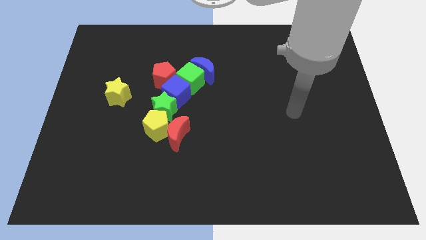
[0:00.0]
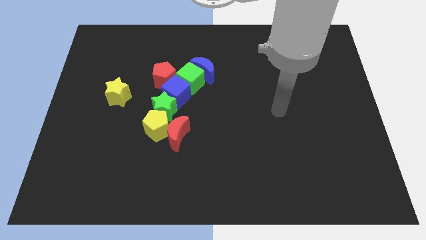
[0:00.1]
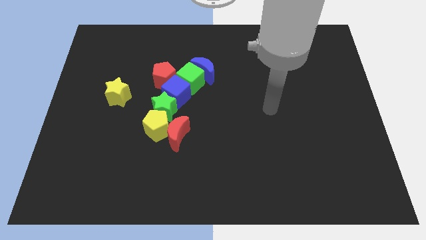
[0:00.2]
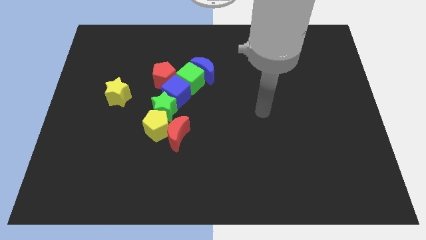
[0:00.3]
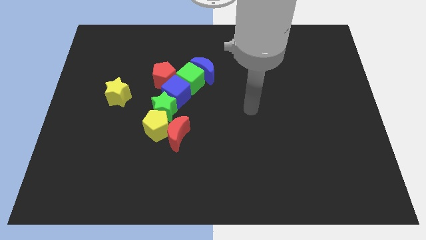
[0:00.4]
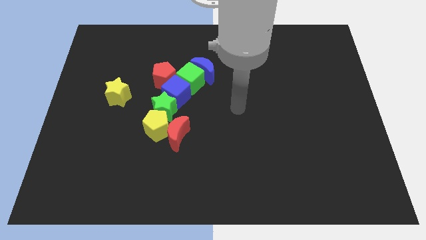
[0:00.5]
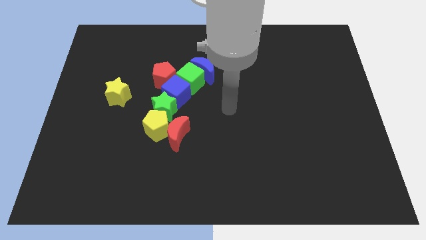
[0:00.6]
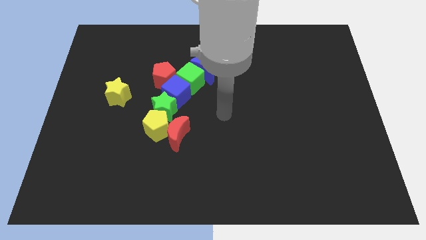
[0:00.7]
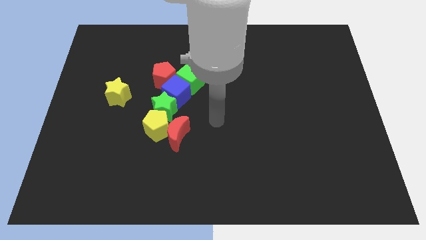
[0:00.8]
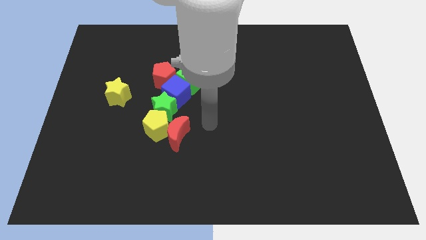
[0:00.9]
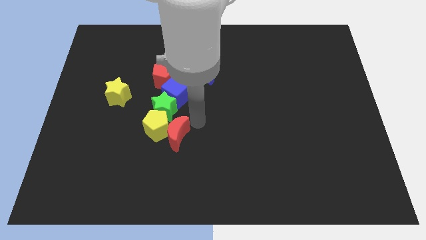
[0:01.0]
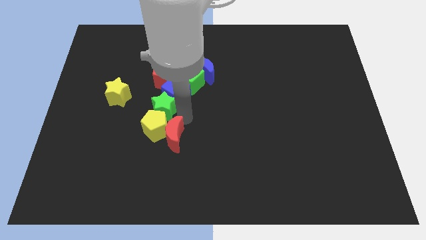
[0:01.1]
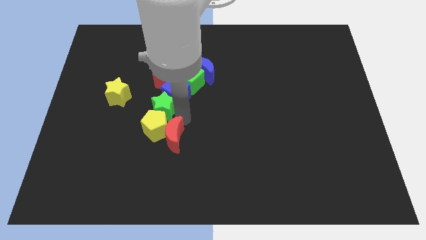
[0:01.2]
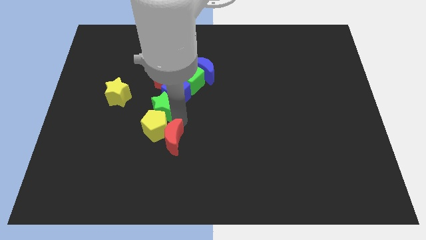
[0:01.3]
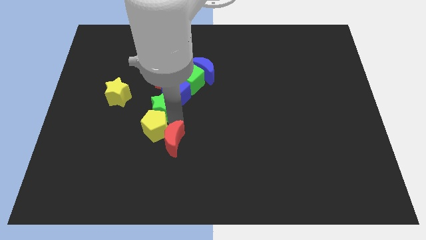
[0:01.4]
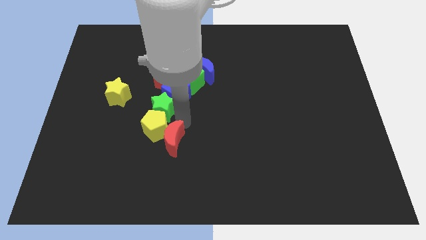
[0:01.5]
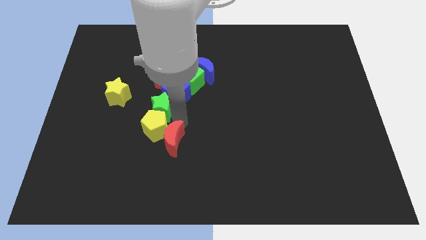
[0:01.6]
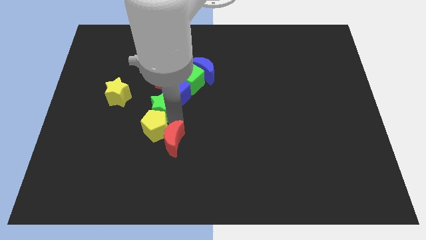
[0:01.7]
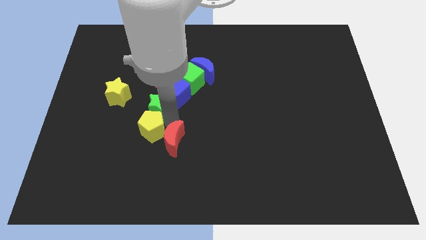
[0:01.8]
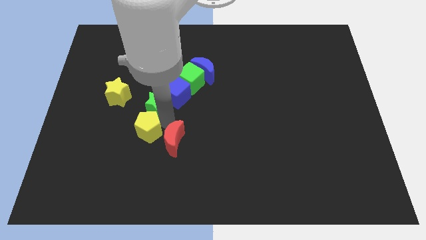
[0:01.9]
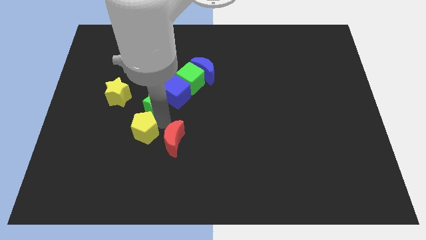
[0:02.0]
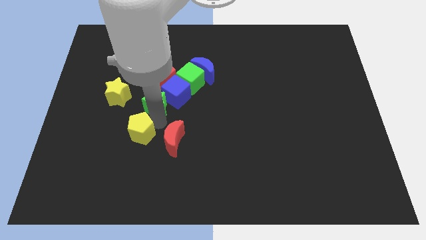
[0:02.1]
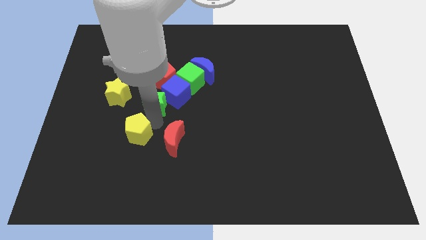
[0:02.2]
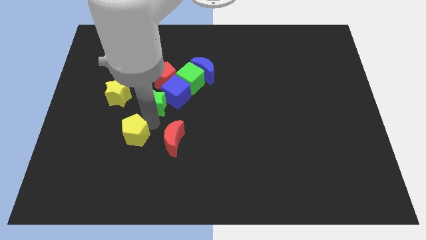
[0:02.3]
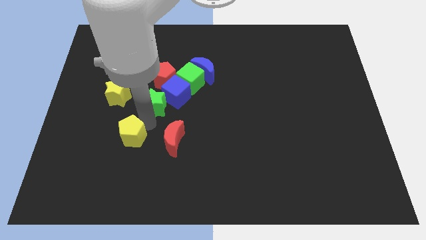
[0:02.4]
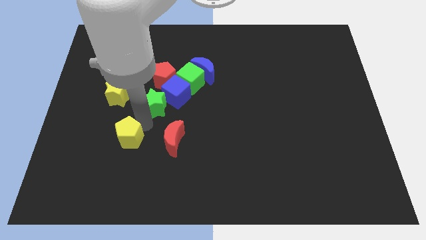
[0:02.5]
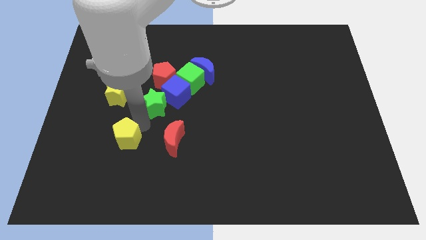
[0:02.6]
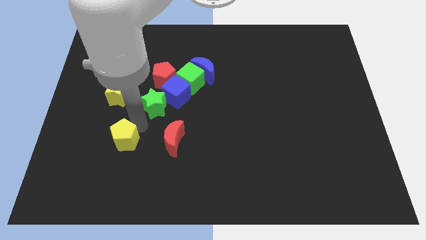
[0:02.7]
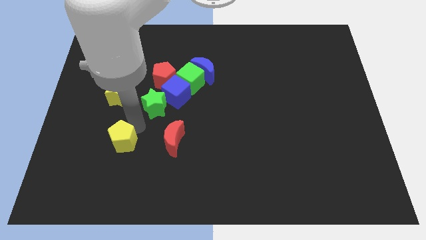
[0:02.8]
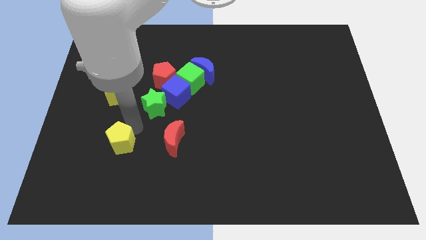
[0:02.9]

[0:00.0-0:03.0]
separate the yellow pentagon from the green star and red moon

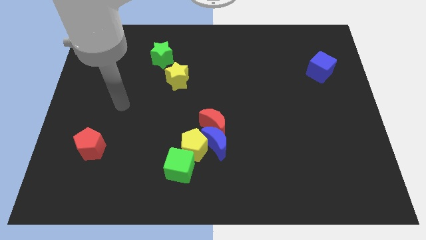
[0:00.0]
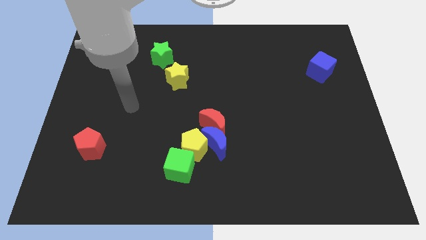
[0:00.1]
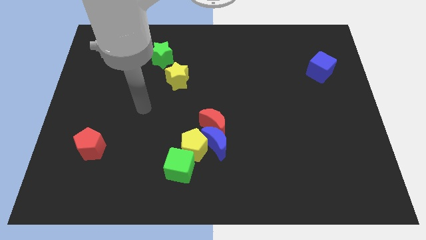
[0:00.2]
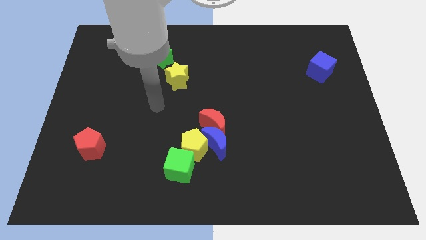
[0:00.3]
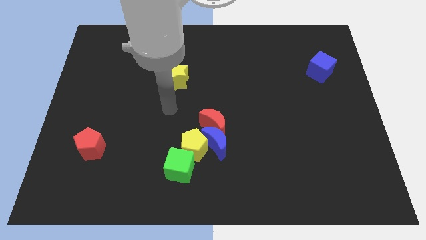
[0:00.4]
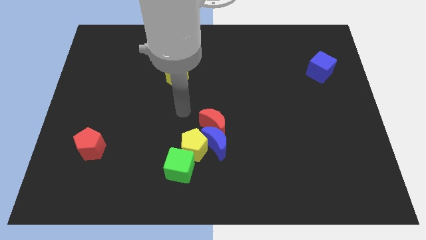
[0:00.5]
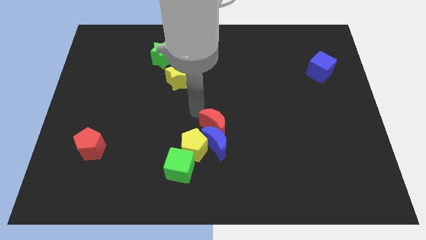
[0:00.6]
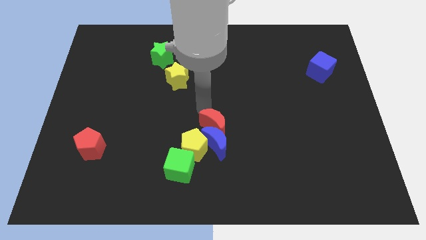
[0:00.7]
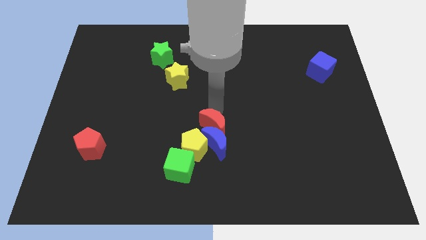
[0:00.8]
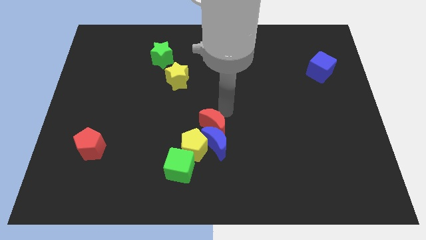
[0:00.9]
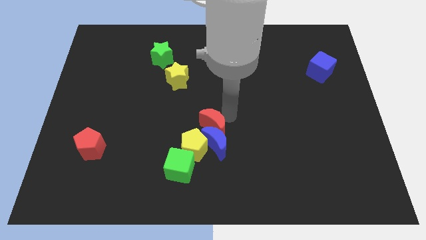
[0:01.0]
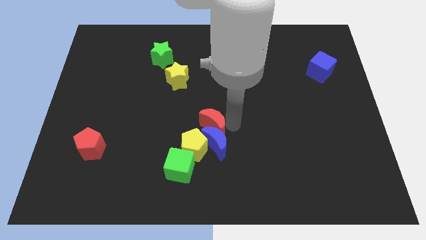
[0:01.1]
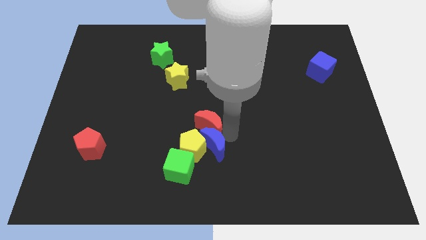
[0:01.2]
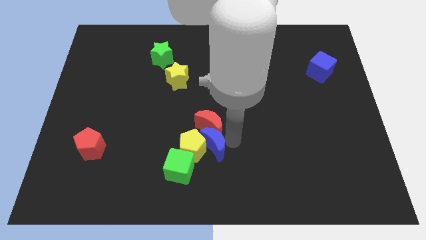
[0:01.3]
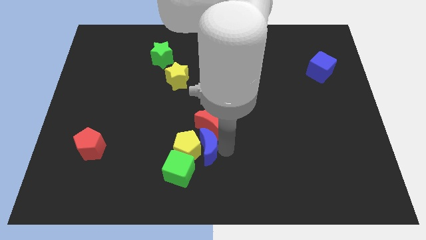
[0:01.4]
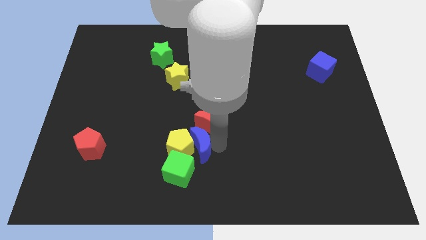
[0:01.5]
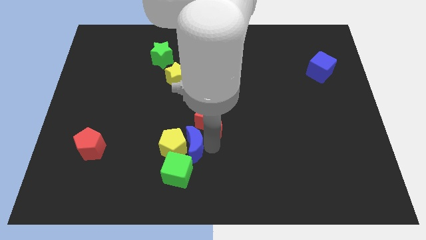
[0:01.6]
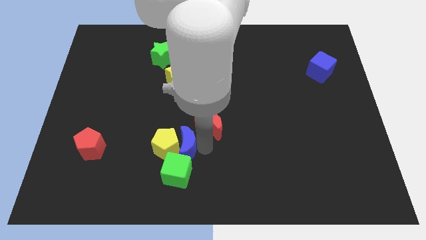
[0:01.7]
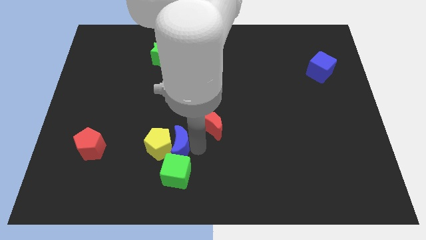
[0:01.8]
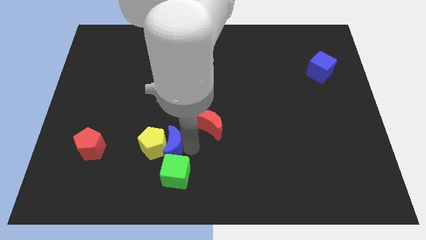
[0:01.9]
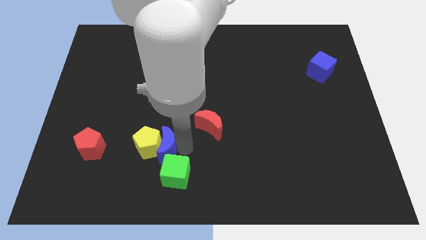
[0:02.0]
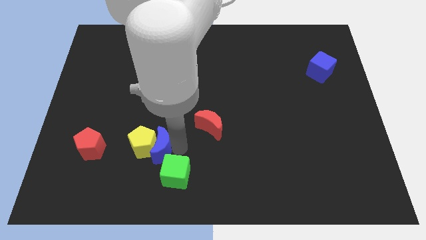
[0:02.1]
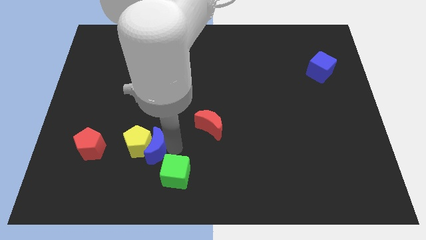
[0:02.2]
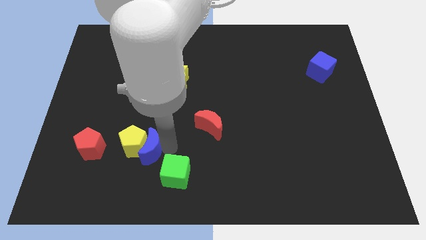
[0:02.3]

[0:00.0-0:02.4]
separate the yellow pentagon from the blue moon, green cube, and red moon

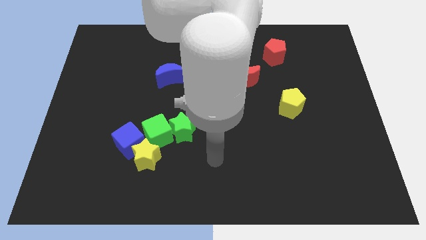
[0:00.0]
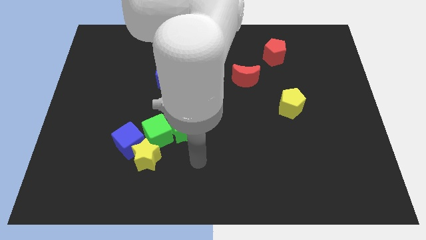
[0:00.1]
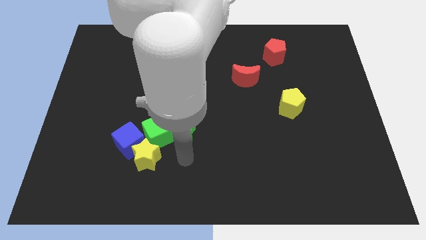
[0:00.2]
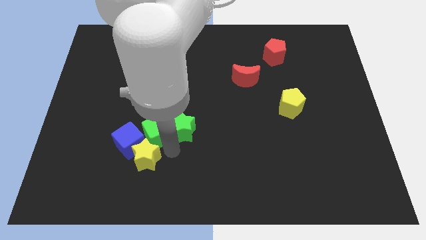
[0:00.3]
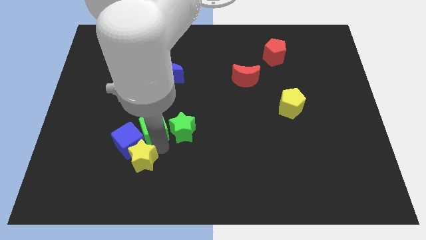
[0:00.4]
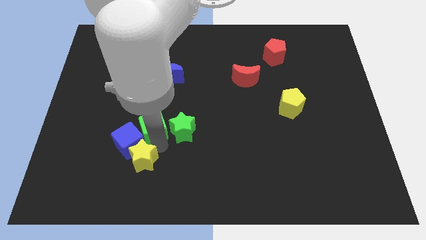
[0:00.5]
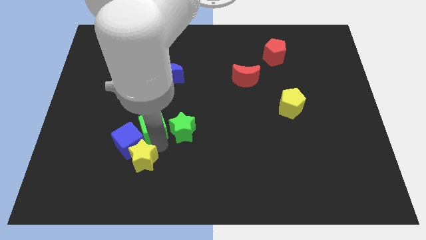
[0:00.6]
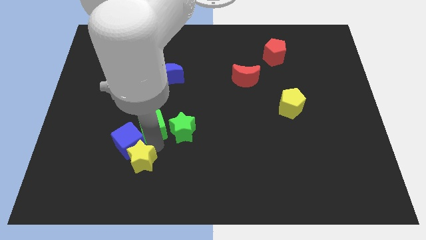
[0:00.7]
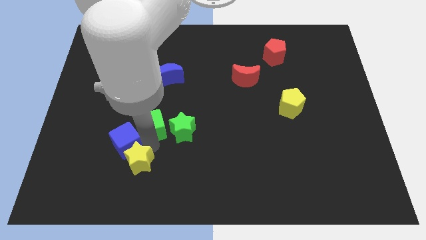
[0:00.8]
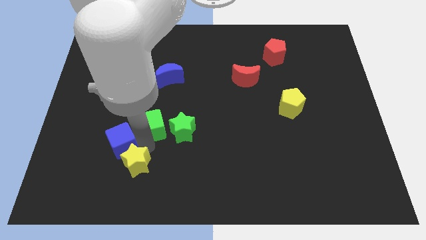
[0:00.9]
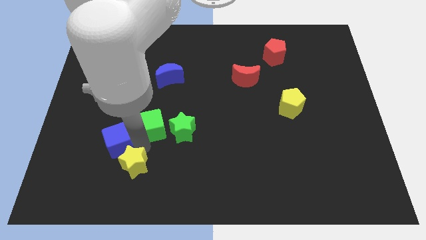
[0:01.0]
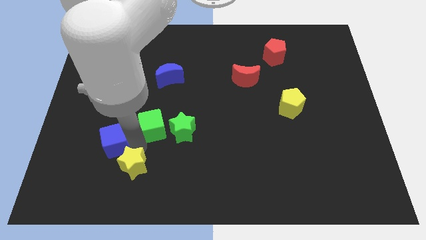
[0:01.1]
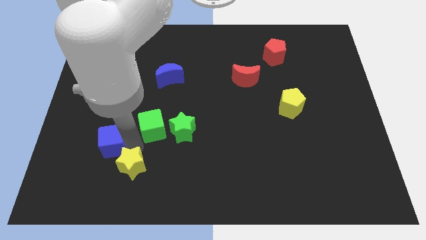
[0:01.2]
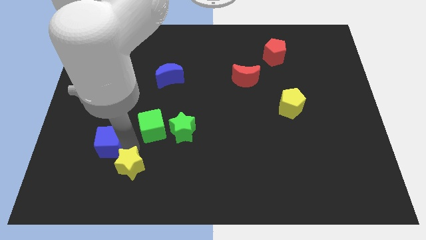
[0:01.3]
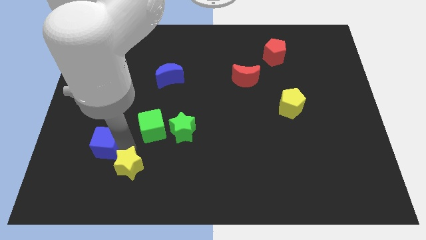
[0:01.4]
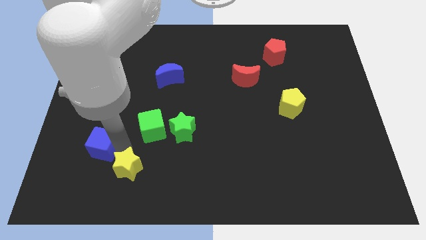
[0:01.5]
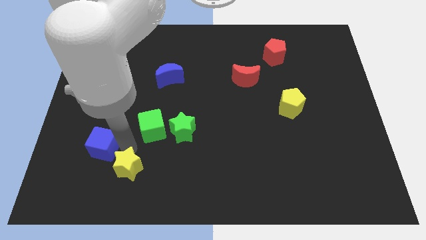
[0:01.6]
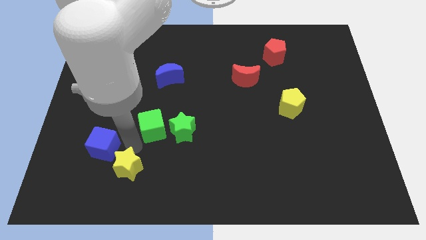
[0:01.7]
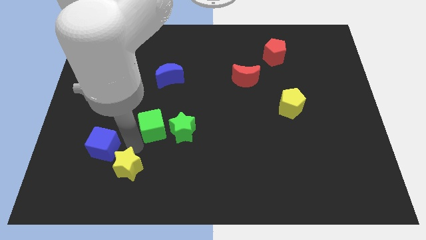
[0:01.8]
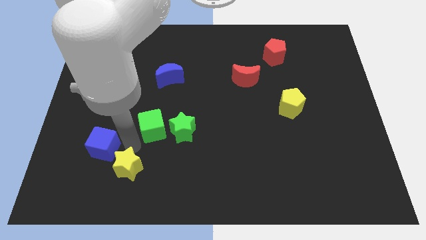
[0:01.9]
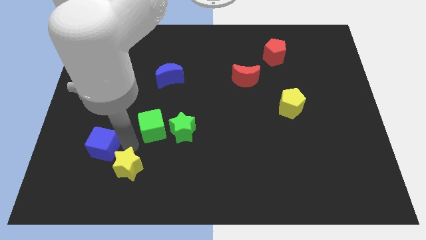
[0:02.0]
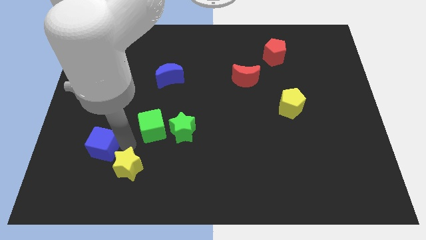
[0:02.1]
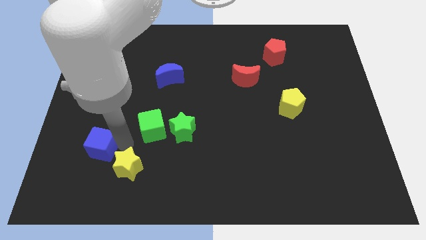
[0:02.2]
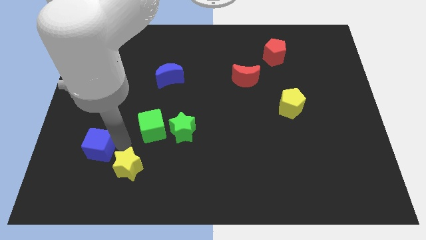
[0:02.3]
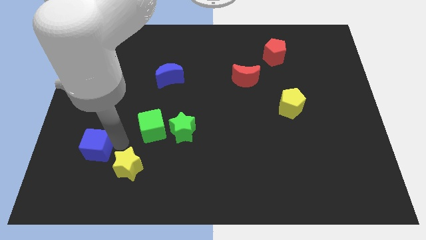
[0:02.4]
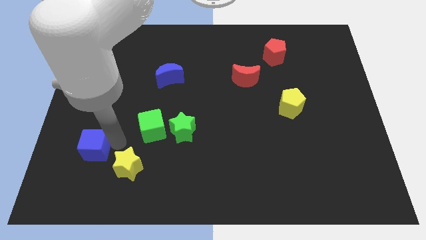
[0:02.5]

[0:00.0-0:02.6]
pull the blue cube apart from the yellow star and green cube

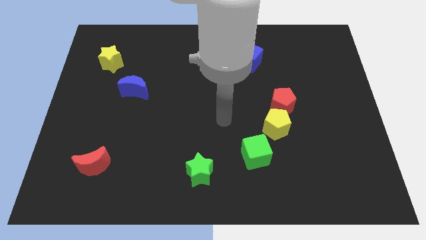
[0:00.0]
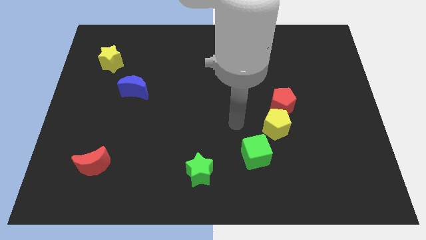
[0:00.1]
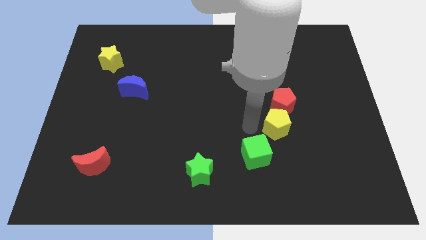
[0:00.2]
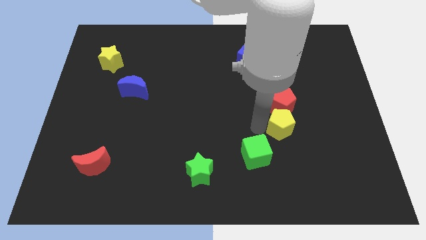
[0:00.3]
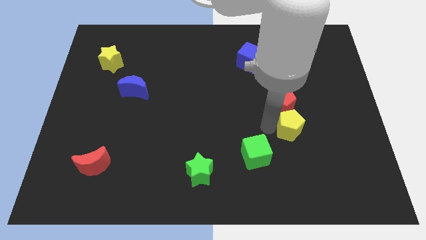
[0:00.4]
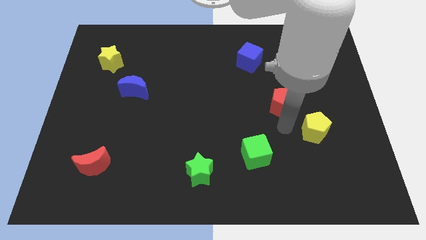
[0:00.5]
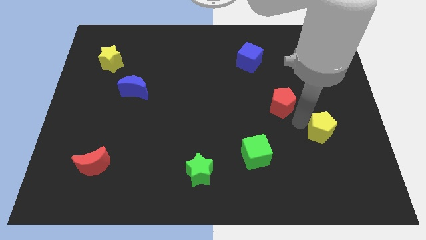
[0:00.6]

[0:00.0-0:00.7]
separate the red pentagon from the yellow pentagon

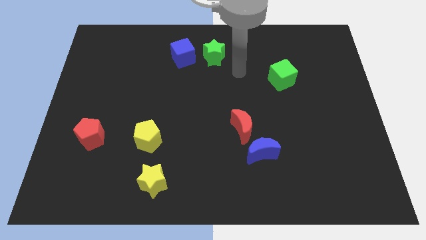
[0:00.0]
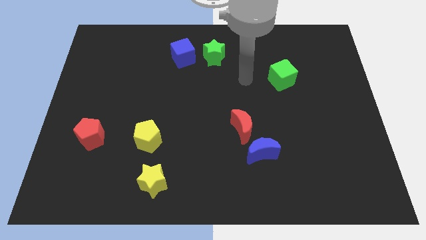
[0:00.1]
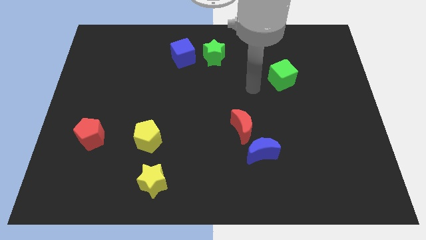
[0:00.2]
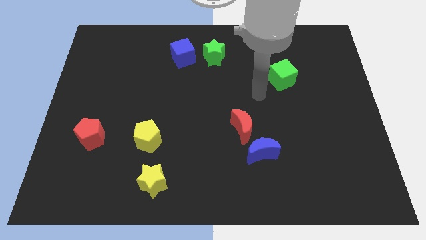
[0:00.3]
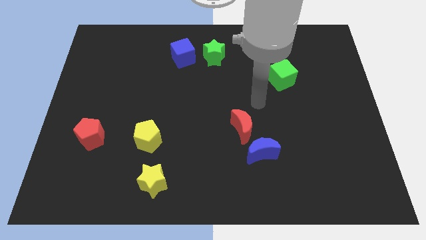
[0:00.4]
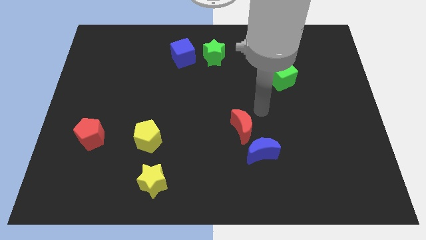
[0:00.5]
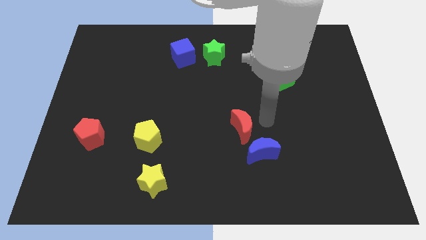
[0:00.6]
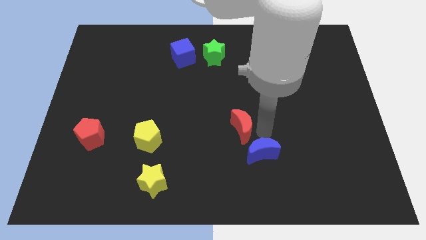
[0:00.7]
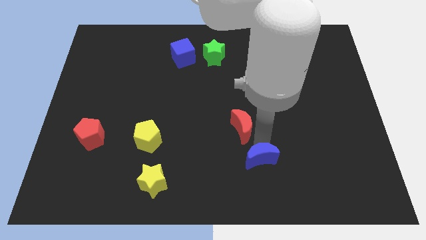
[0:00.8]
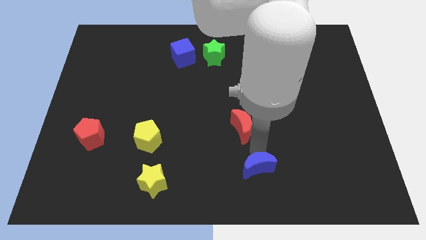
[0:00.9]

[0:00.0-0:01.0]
move the red moon away from the blue moon
